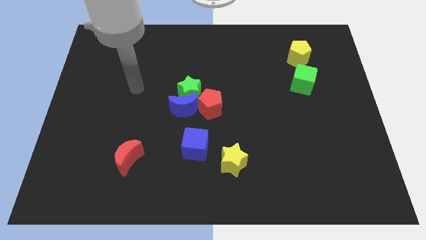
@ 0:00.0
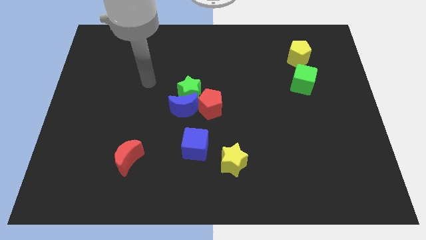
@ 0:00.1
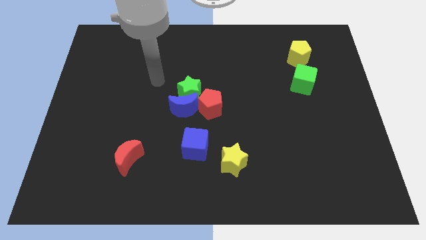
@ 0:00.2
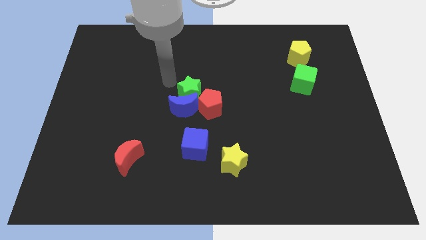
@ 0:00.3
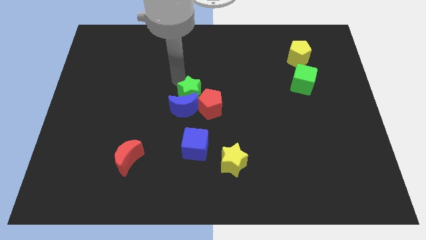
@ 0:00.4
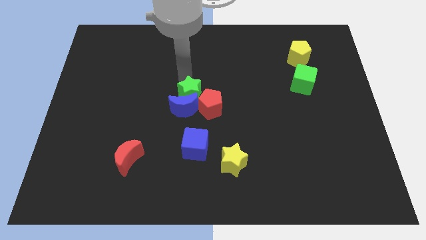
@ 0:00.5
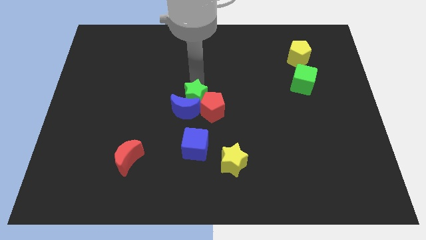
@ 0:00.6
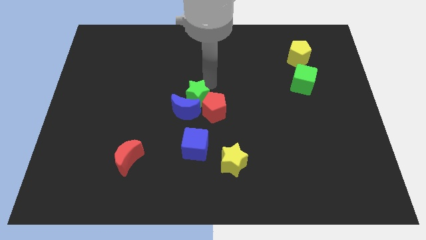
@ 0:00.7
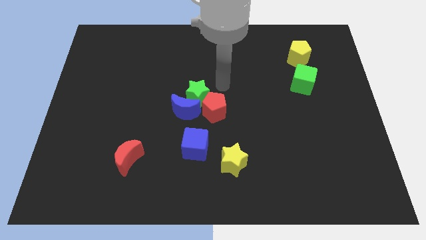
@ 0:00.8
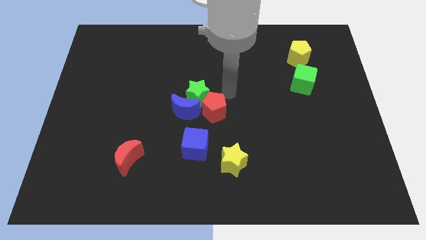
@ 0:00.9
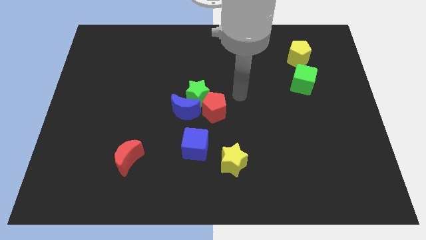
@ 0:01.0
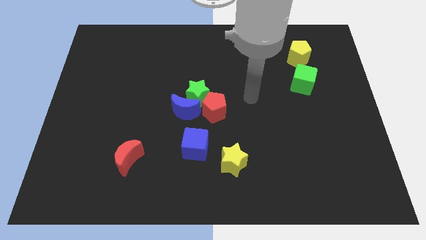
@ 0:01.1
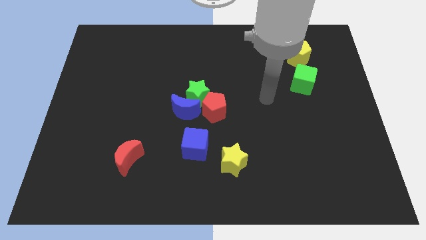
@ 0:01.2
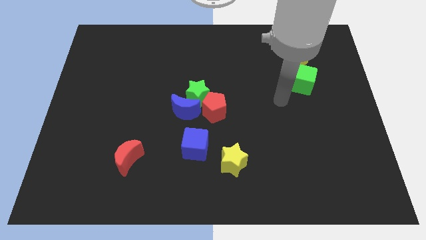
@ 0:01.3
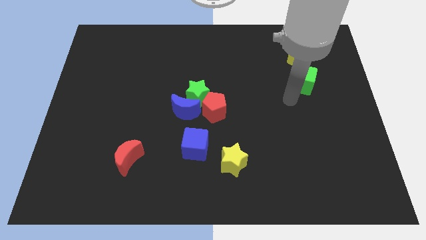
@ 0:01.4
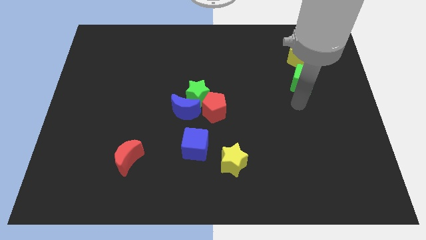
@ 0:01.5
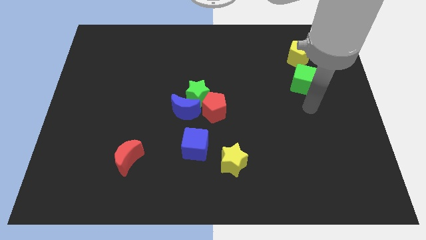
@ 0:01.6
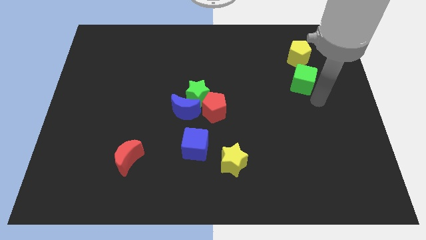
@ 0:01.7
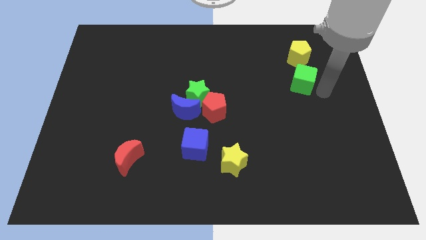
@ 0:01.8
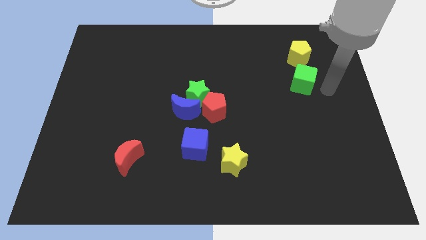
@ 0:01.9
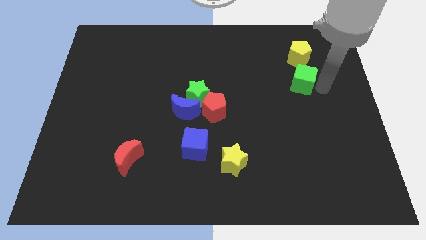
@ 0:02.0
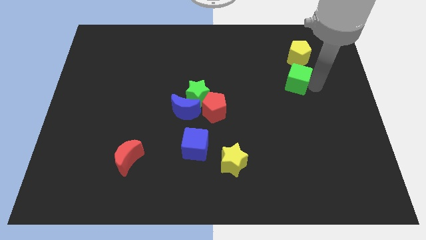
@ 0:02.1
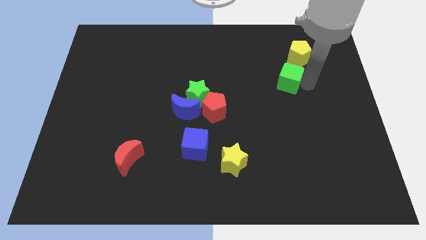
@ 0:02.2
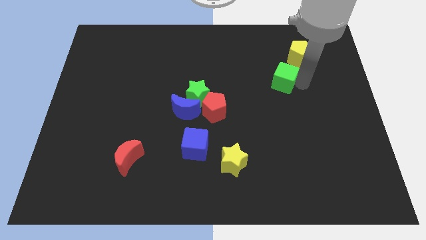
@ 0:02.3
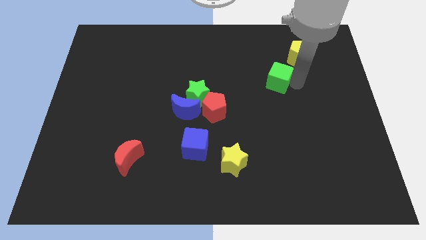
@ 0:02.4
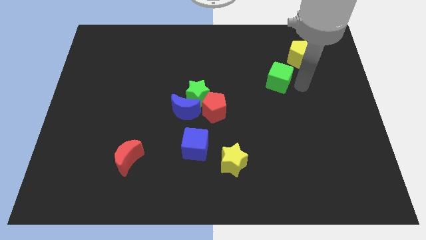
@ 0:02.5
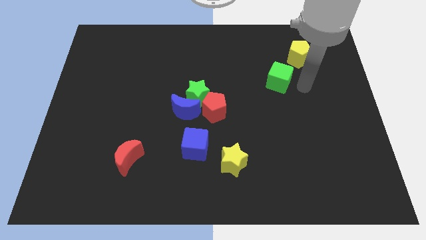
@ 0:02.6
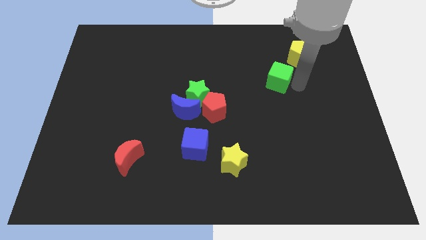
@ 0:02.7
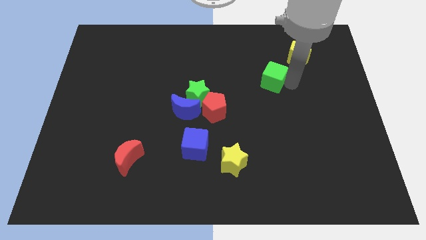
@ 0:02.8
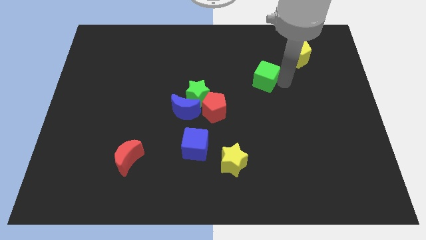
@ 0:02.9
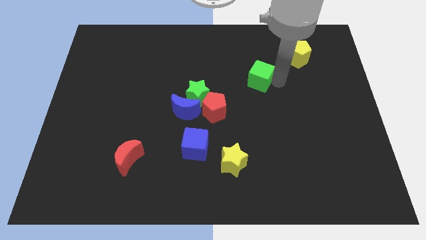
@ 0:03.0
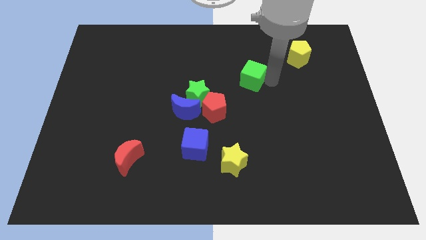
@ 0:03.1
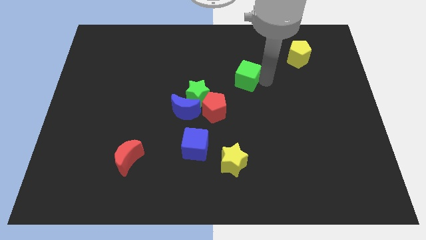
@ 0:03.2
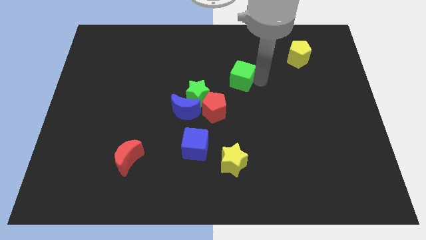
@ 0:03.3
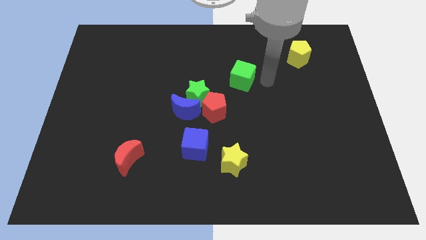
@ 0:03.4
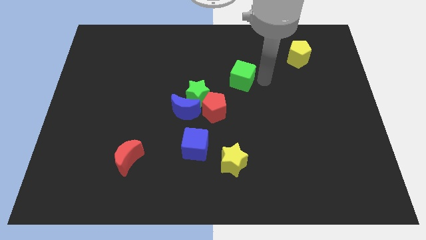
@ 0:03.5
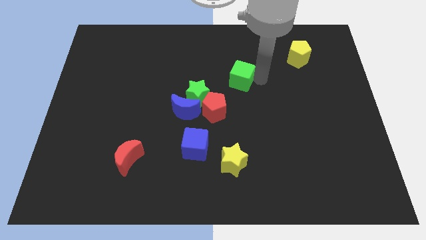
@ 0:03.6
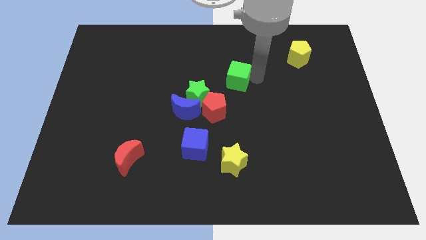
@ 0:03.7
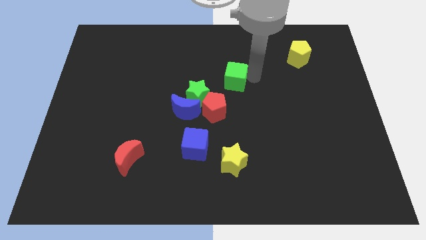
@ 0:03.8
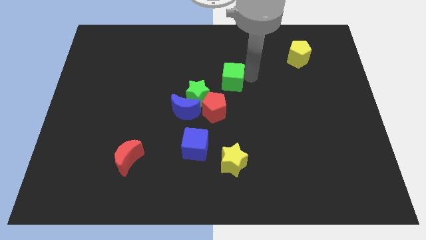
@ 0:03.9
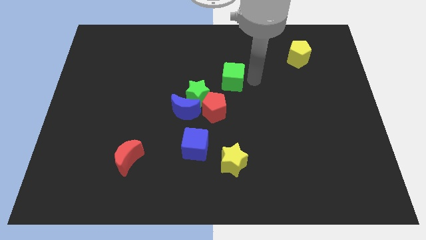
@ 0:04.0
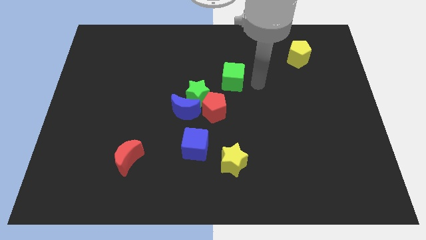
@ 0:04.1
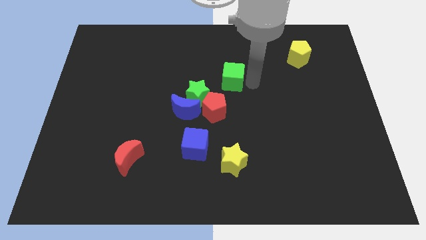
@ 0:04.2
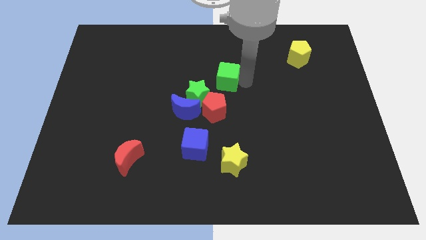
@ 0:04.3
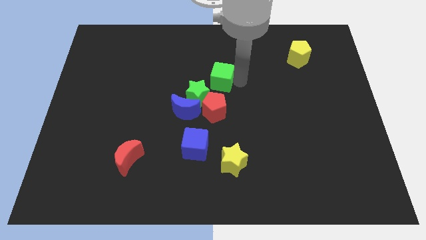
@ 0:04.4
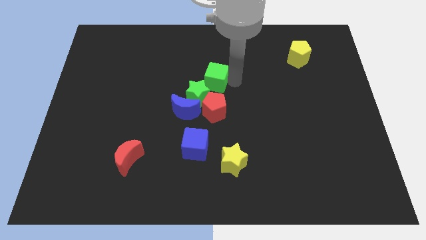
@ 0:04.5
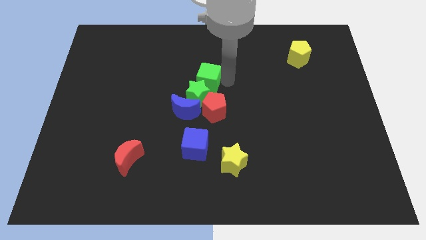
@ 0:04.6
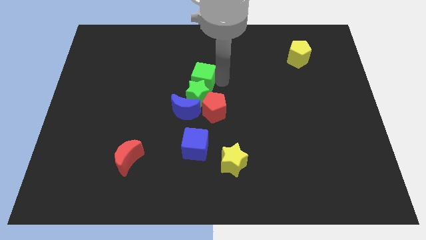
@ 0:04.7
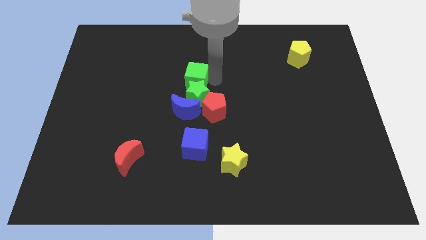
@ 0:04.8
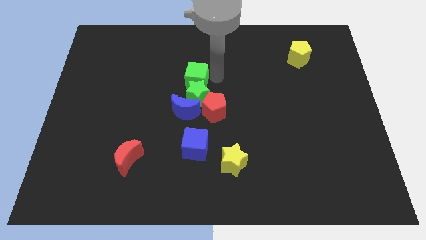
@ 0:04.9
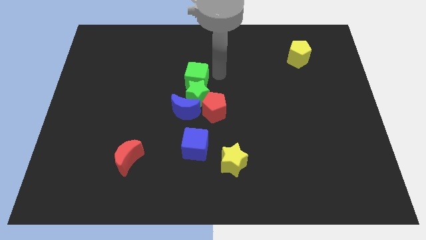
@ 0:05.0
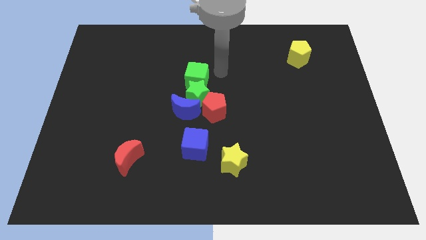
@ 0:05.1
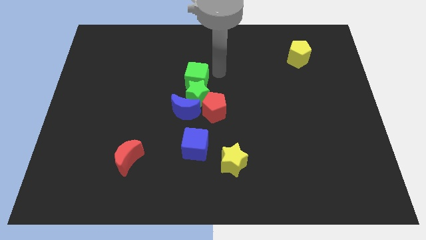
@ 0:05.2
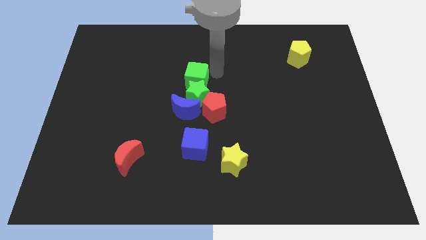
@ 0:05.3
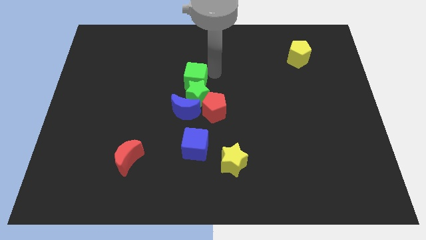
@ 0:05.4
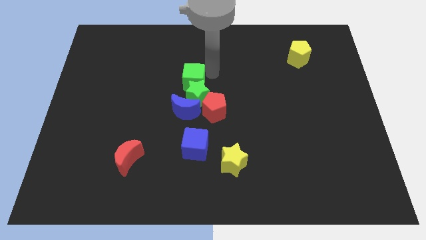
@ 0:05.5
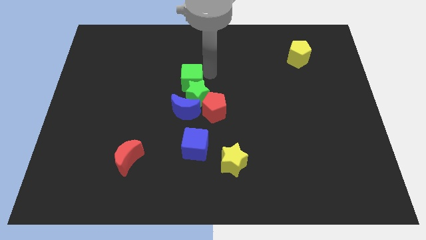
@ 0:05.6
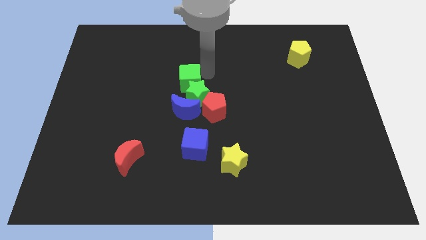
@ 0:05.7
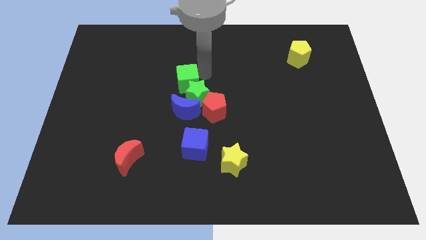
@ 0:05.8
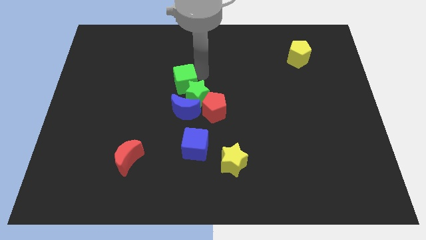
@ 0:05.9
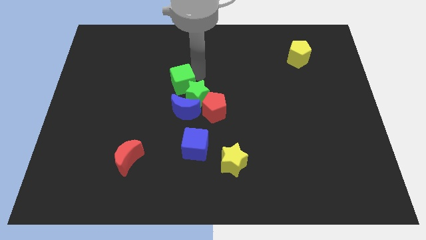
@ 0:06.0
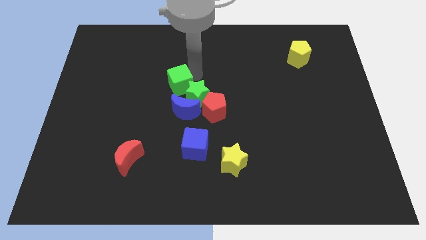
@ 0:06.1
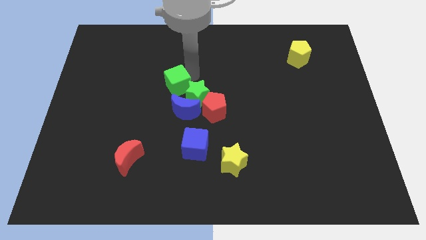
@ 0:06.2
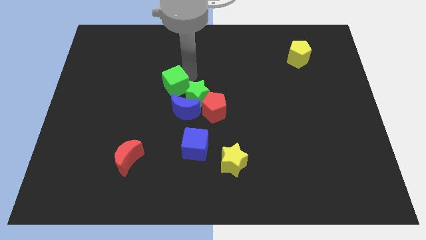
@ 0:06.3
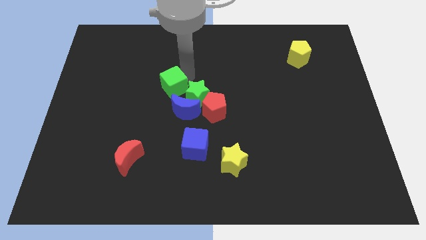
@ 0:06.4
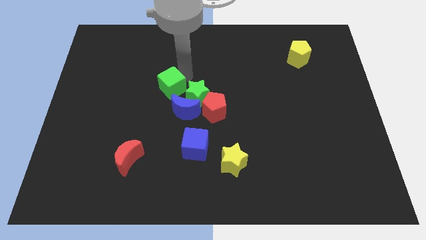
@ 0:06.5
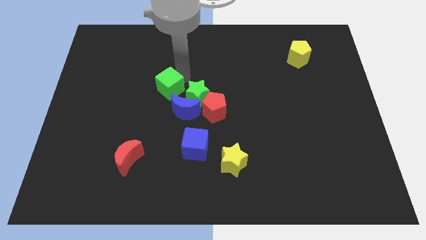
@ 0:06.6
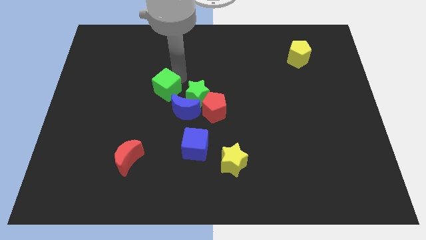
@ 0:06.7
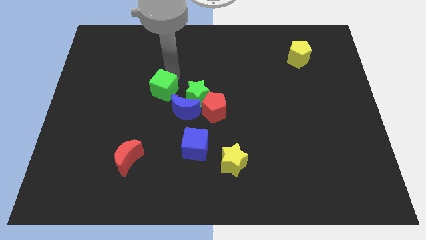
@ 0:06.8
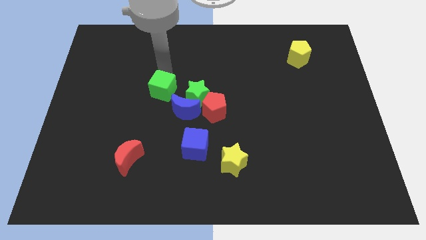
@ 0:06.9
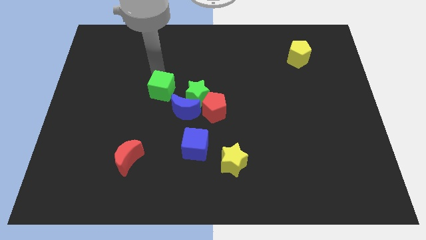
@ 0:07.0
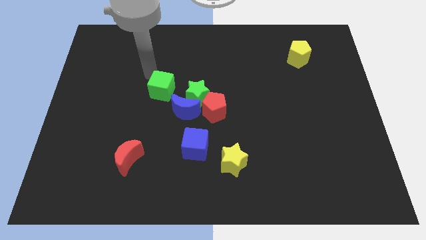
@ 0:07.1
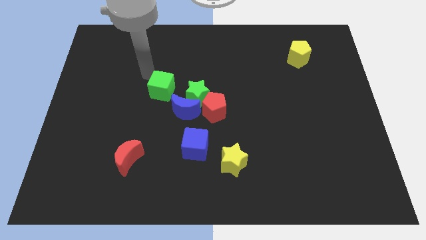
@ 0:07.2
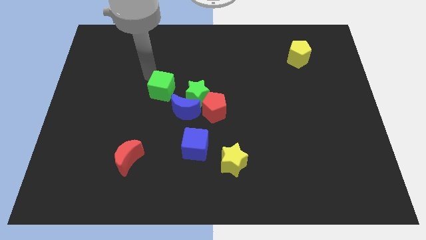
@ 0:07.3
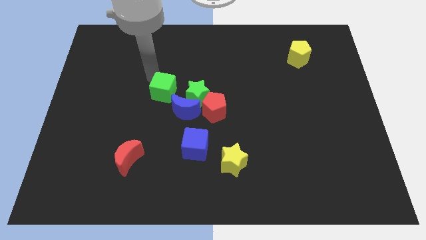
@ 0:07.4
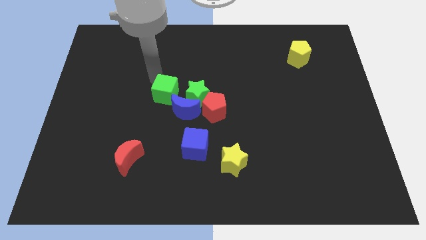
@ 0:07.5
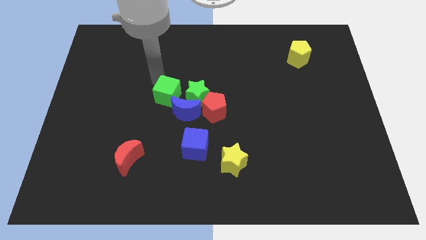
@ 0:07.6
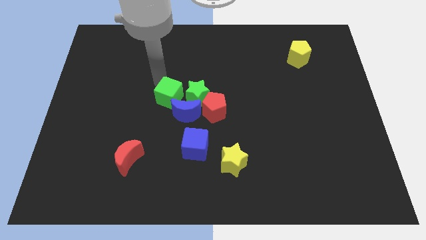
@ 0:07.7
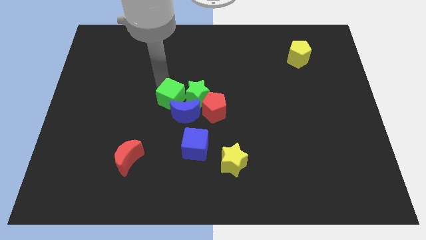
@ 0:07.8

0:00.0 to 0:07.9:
slide the green cube next to the blue moon
